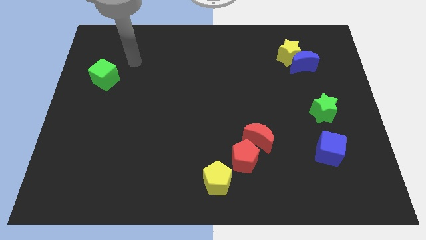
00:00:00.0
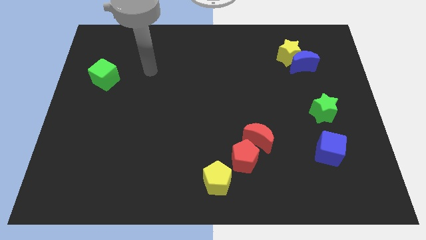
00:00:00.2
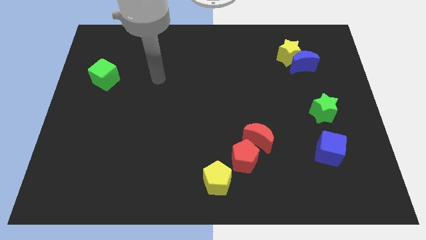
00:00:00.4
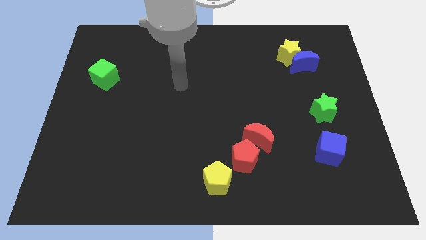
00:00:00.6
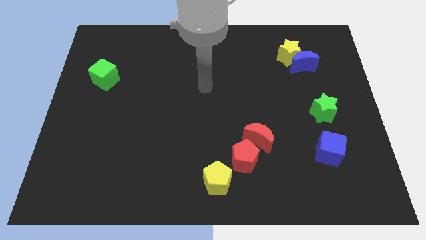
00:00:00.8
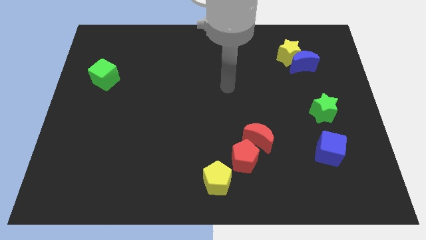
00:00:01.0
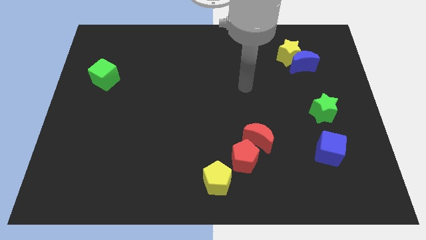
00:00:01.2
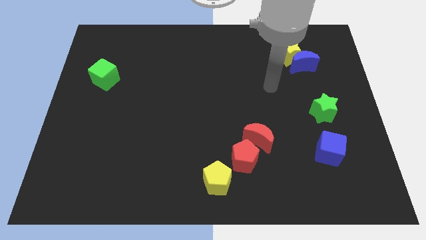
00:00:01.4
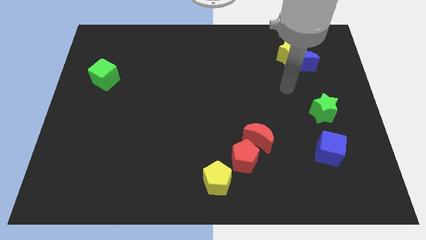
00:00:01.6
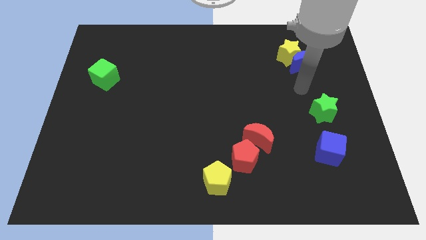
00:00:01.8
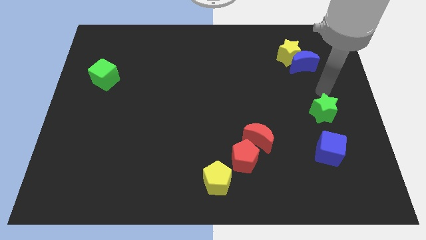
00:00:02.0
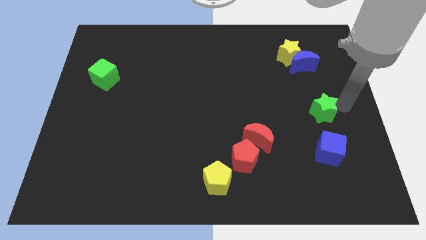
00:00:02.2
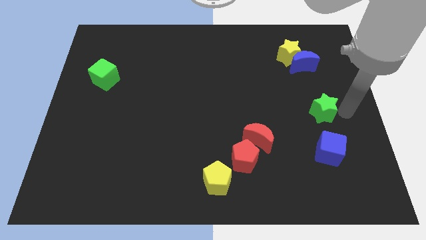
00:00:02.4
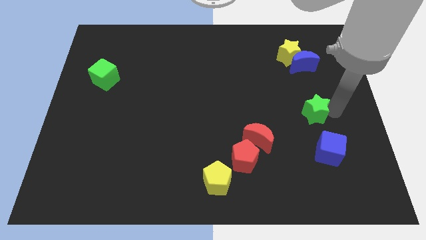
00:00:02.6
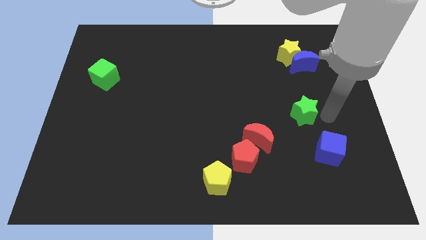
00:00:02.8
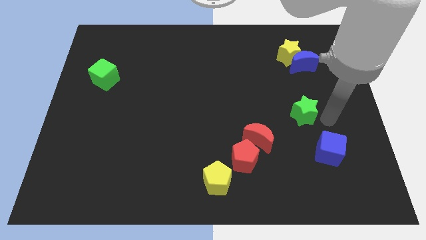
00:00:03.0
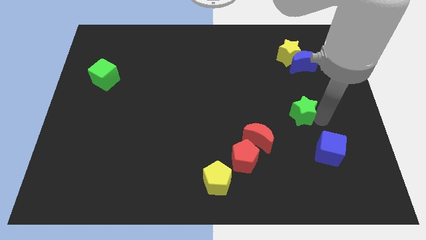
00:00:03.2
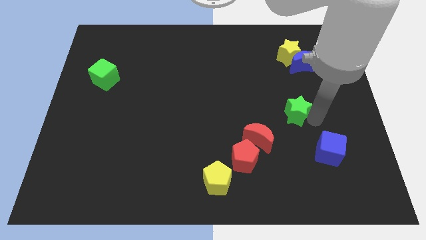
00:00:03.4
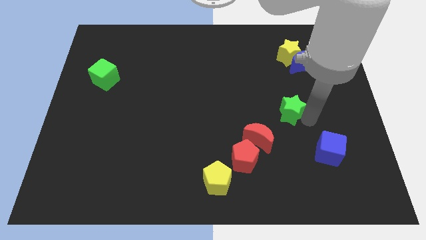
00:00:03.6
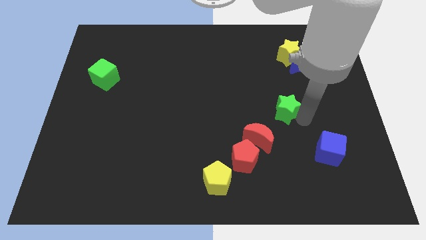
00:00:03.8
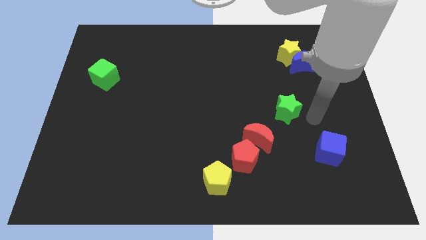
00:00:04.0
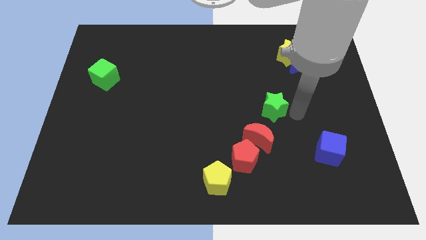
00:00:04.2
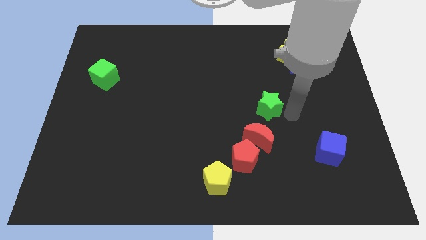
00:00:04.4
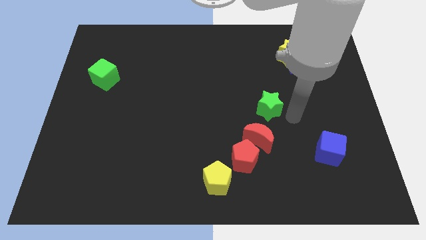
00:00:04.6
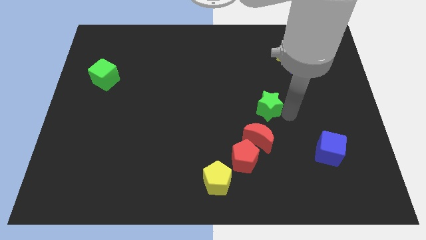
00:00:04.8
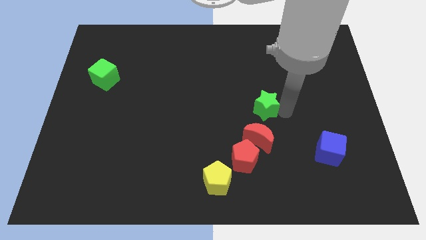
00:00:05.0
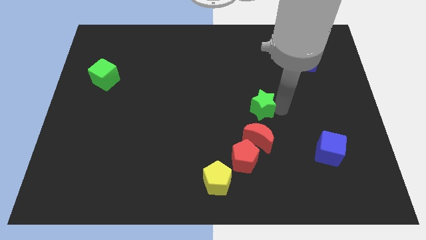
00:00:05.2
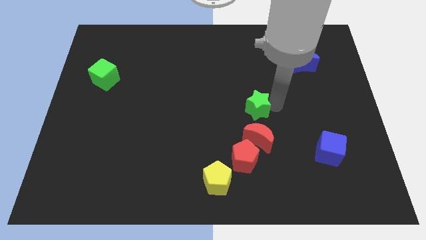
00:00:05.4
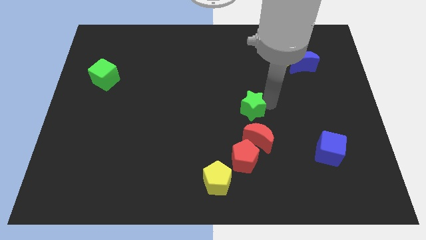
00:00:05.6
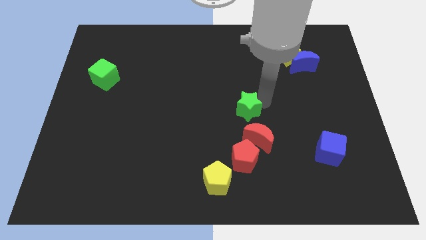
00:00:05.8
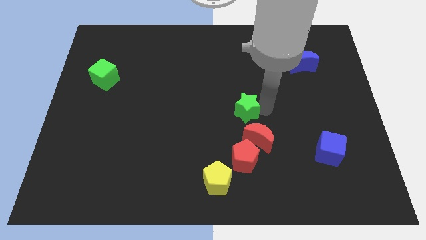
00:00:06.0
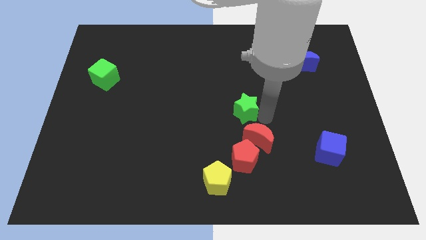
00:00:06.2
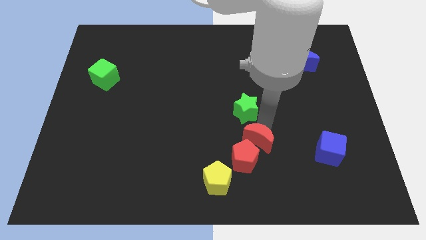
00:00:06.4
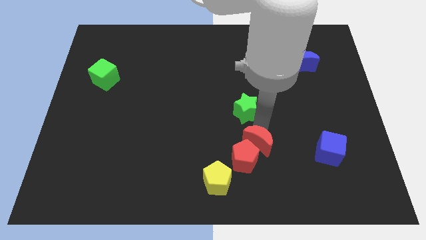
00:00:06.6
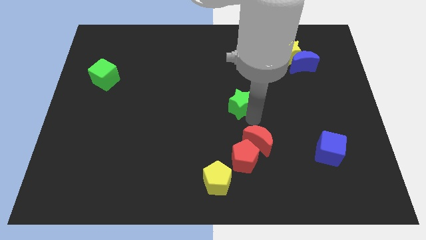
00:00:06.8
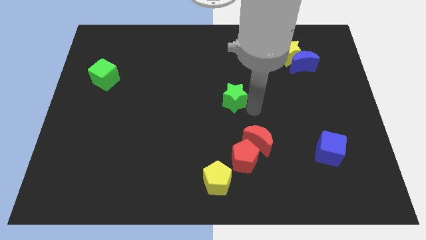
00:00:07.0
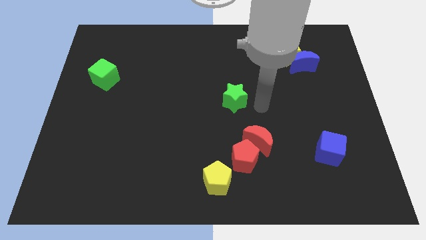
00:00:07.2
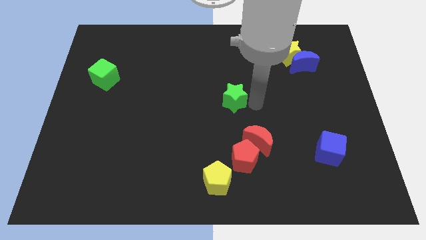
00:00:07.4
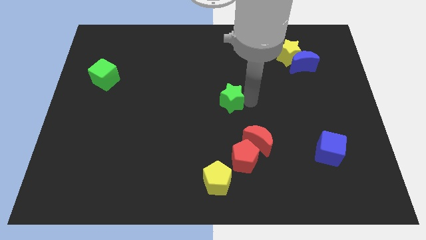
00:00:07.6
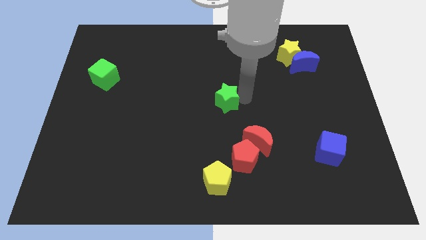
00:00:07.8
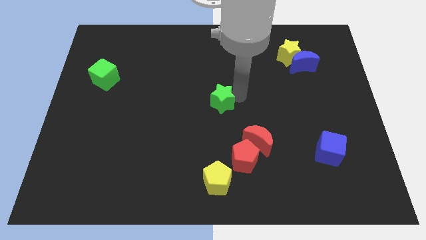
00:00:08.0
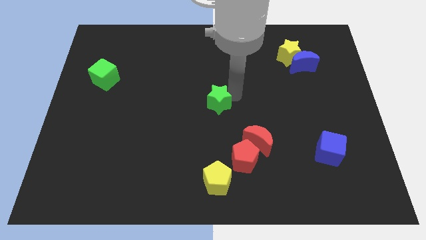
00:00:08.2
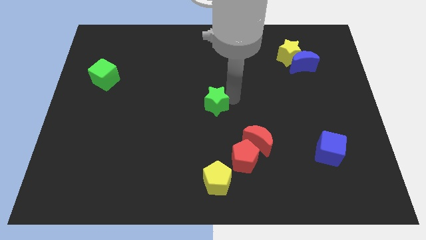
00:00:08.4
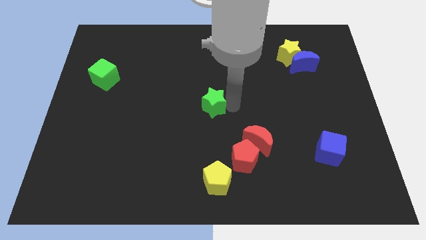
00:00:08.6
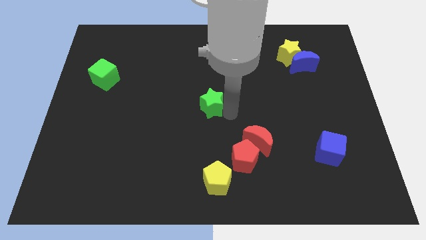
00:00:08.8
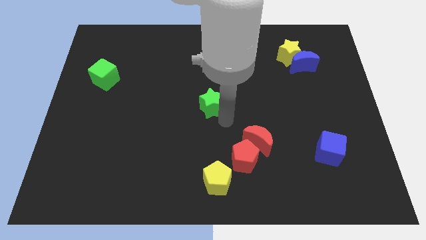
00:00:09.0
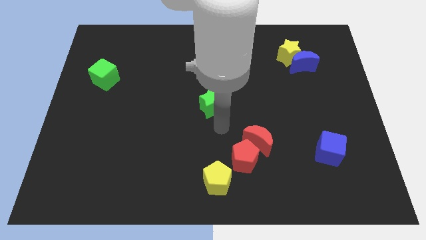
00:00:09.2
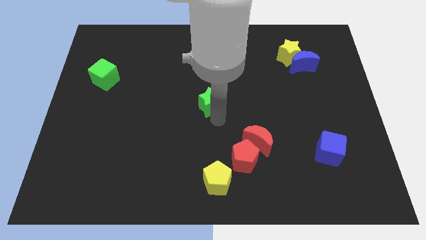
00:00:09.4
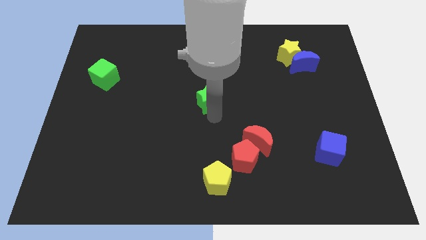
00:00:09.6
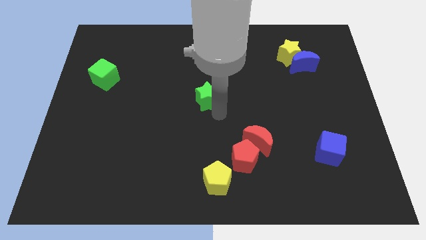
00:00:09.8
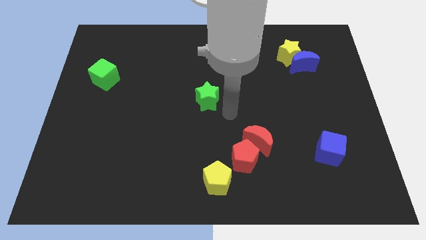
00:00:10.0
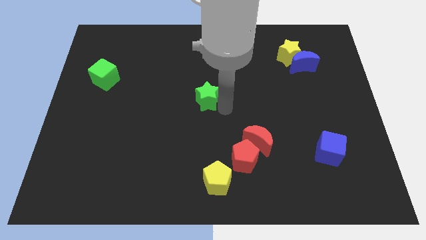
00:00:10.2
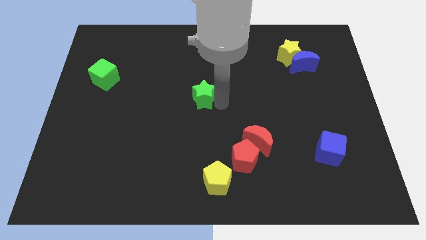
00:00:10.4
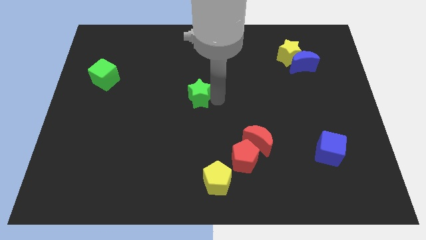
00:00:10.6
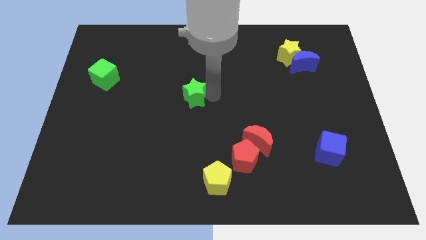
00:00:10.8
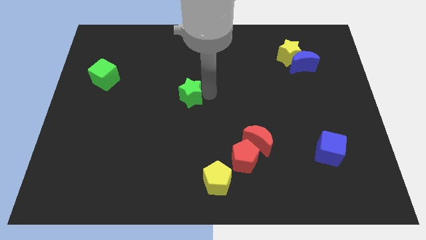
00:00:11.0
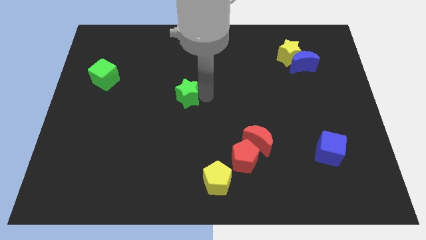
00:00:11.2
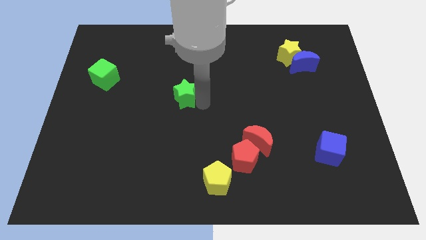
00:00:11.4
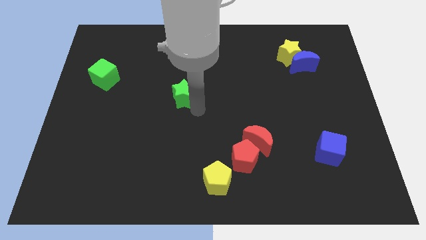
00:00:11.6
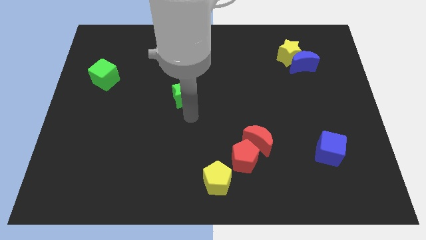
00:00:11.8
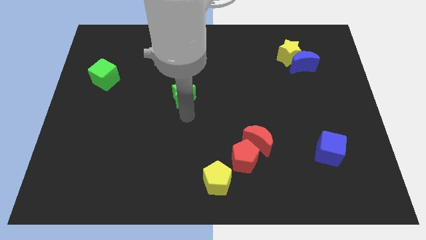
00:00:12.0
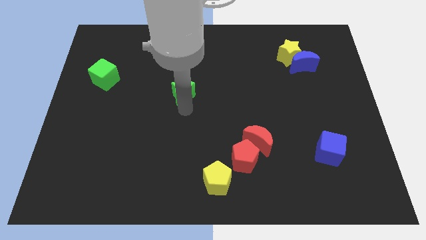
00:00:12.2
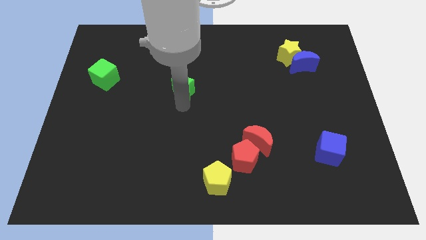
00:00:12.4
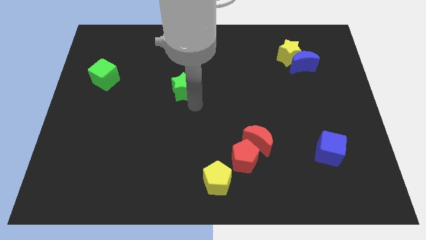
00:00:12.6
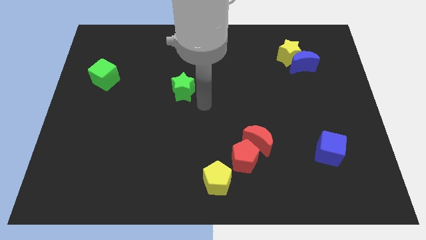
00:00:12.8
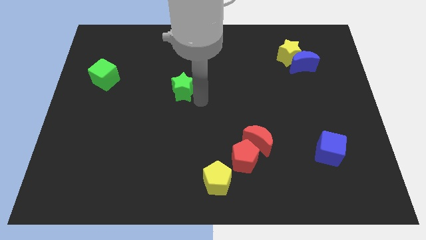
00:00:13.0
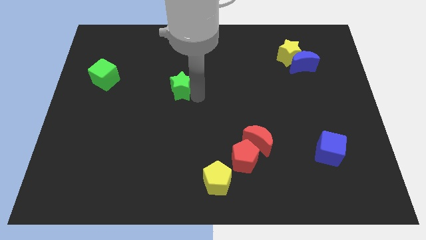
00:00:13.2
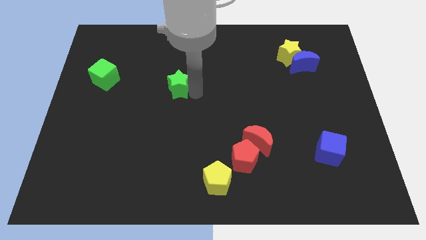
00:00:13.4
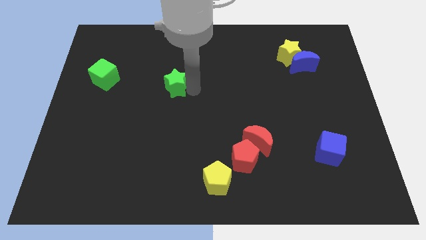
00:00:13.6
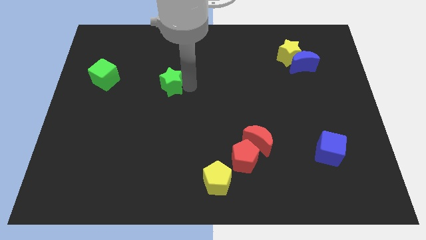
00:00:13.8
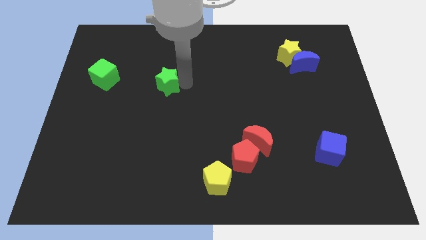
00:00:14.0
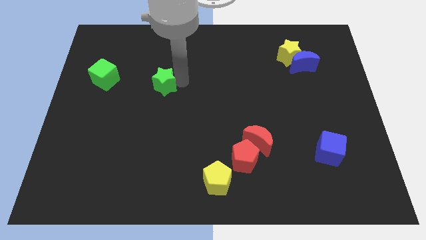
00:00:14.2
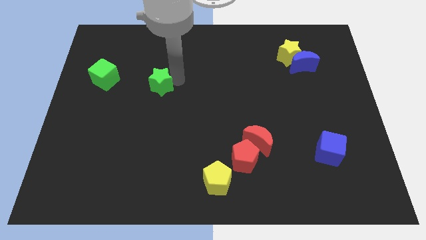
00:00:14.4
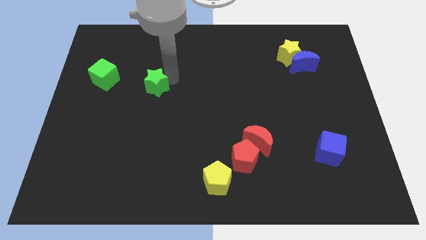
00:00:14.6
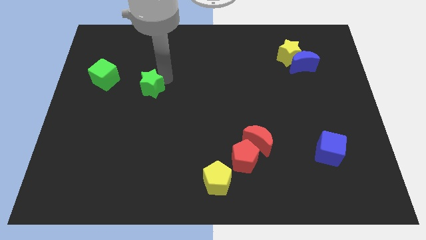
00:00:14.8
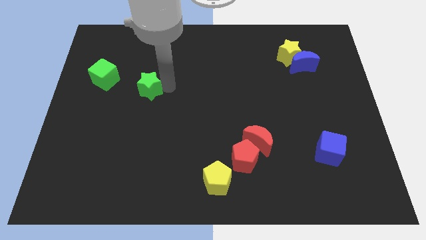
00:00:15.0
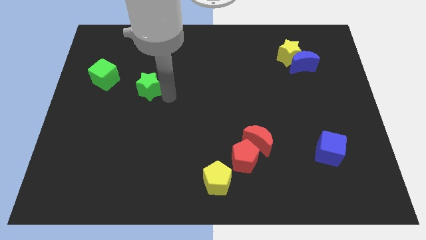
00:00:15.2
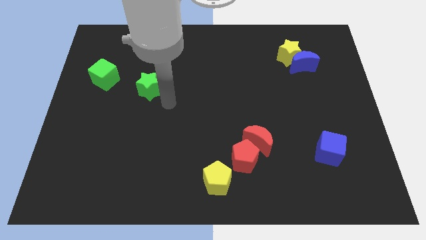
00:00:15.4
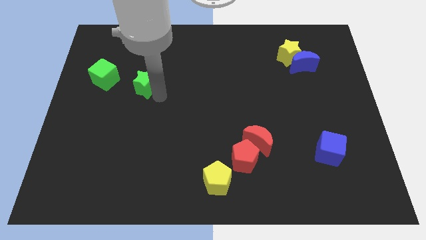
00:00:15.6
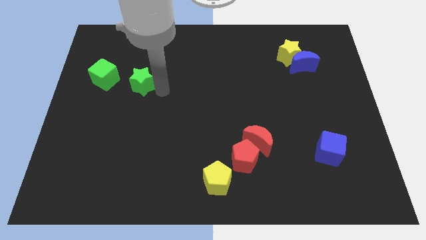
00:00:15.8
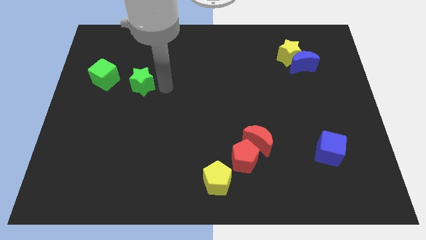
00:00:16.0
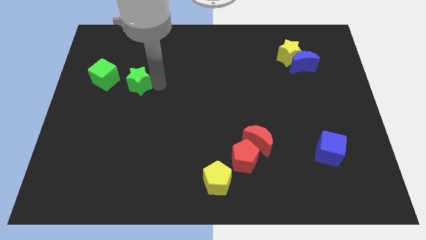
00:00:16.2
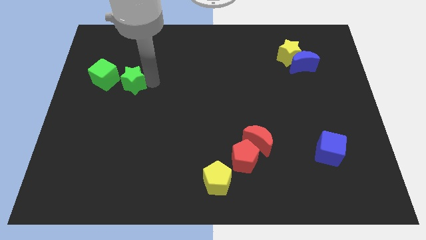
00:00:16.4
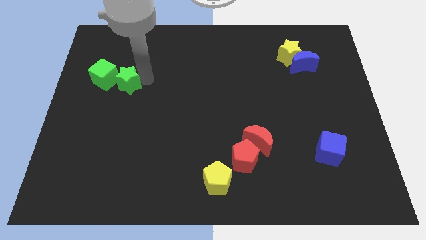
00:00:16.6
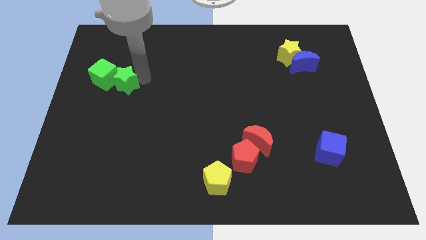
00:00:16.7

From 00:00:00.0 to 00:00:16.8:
move the green star to the green cube
